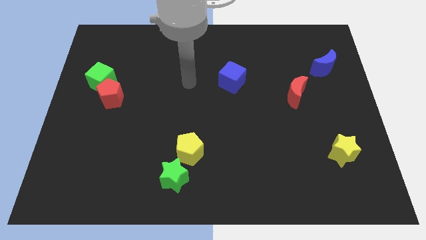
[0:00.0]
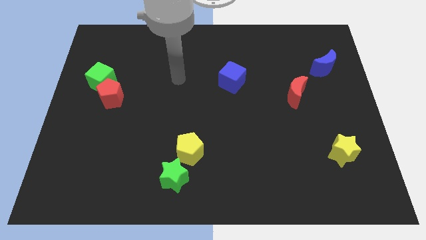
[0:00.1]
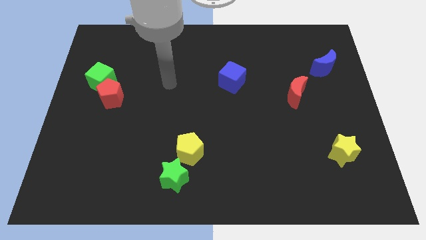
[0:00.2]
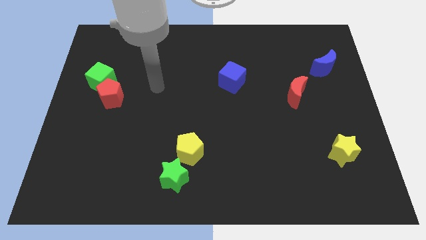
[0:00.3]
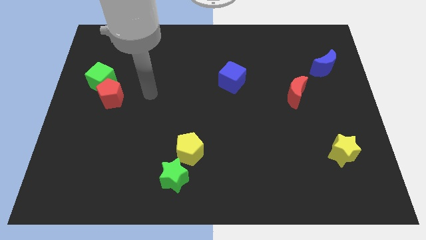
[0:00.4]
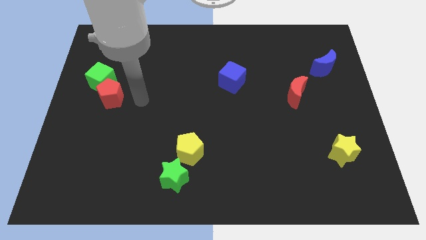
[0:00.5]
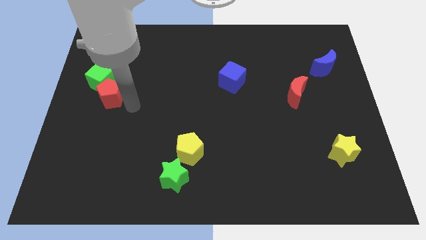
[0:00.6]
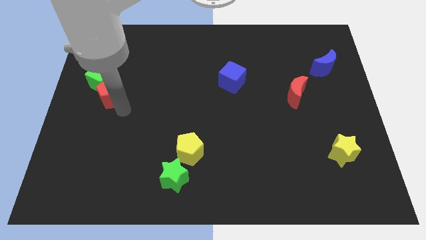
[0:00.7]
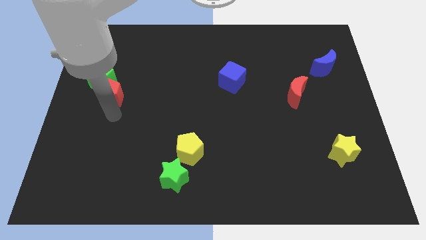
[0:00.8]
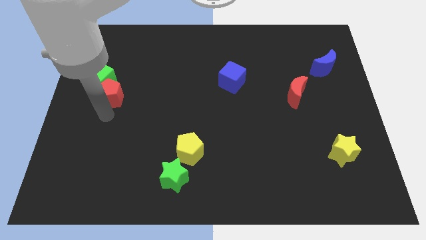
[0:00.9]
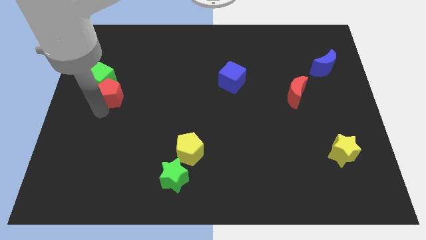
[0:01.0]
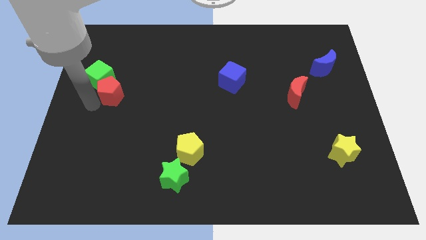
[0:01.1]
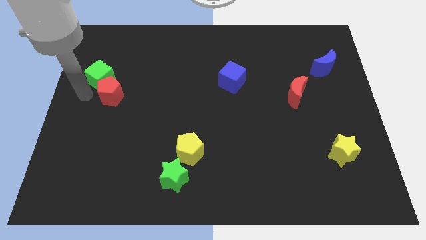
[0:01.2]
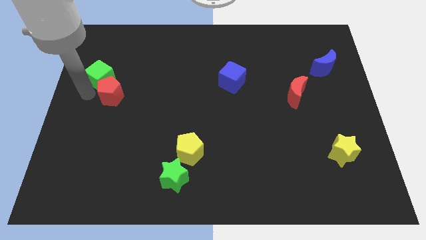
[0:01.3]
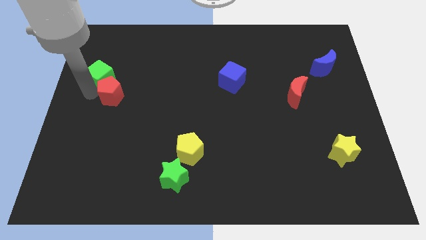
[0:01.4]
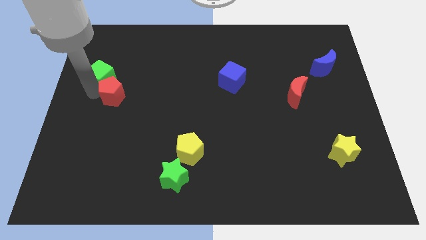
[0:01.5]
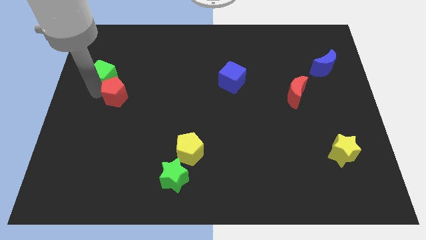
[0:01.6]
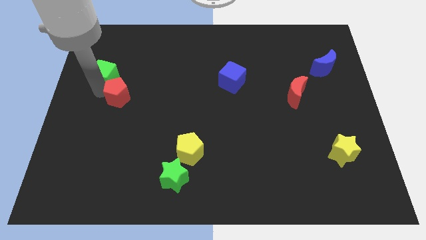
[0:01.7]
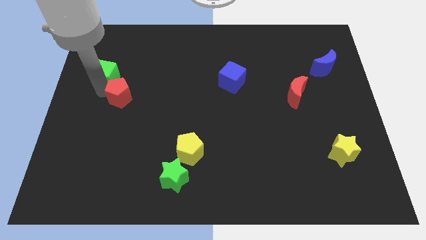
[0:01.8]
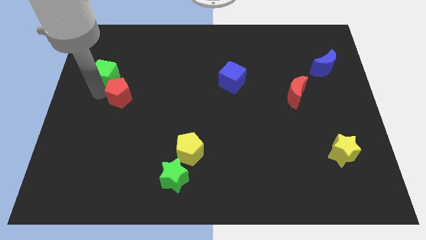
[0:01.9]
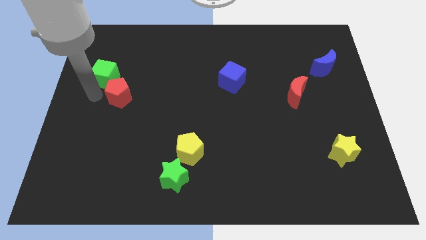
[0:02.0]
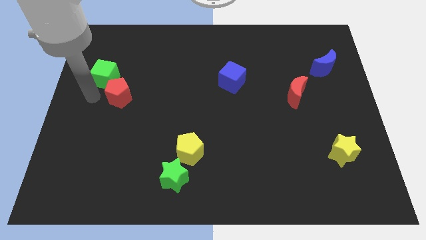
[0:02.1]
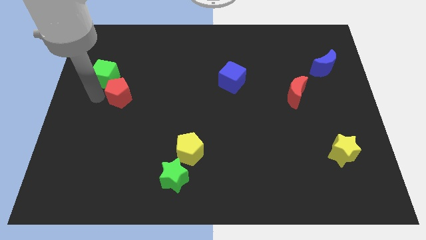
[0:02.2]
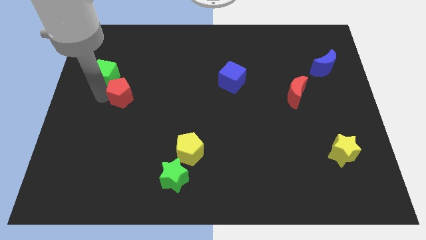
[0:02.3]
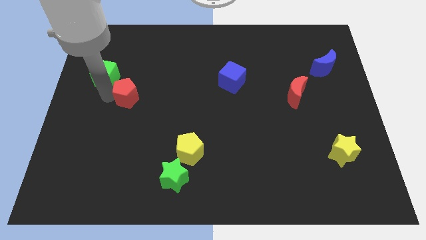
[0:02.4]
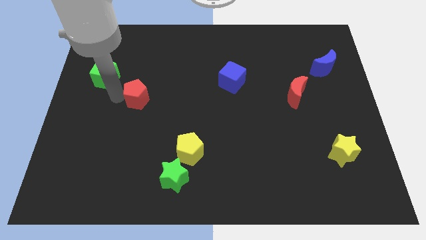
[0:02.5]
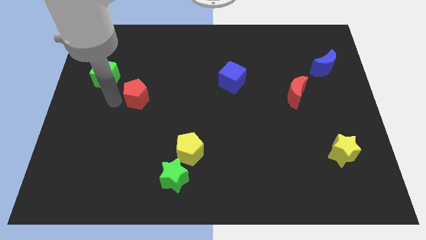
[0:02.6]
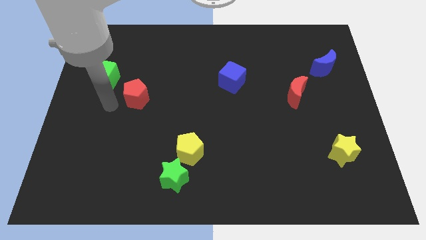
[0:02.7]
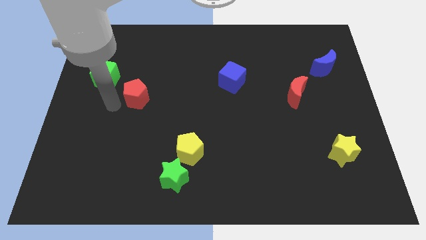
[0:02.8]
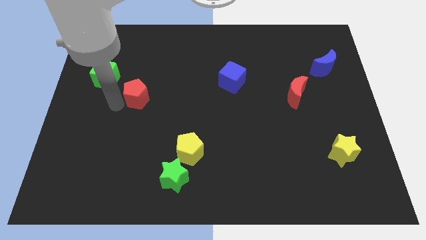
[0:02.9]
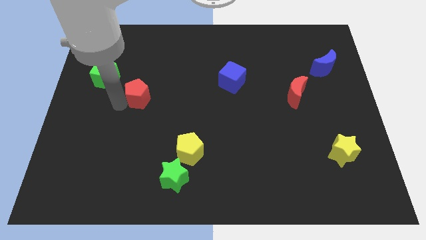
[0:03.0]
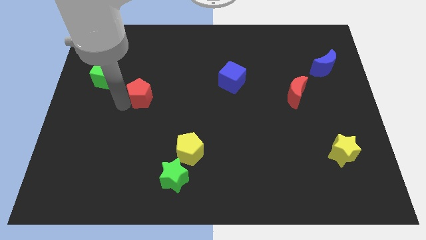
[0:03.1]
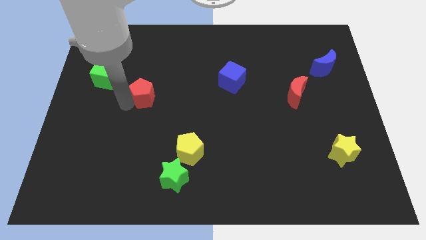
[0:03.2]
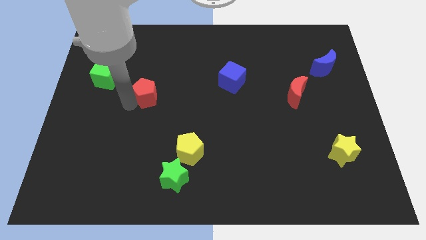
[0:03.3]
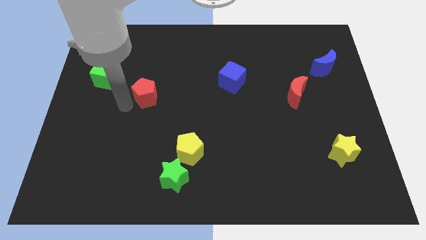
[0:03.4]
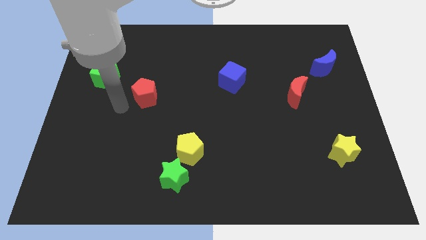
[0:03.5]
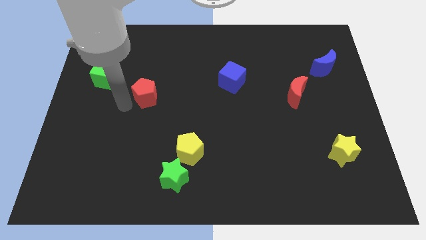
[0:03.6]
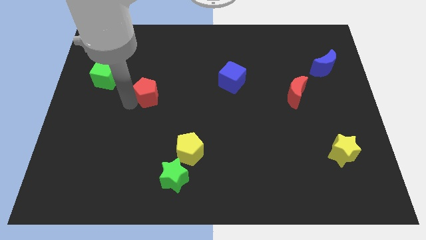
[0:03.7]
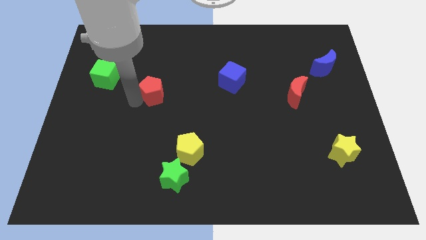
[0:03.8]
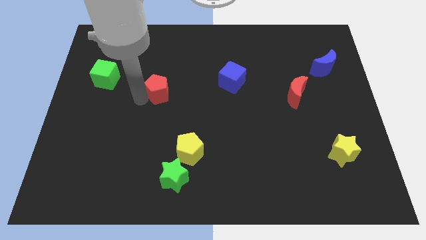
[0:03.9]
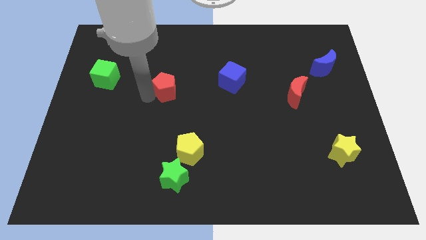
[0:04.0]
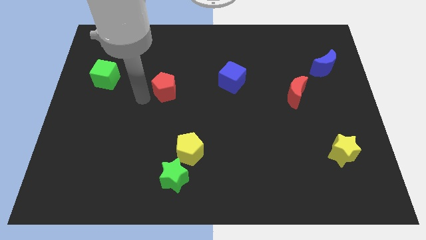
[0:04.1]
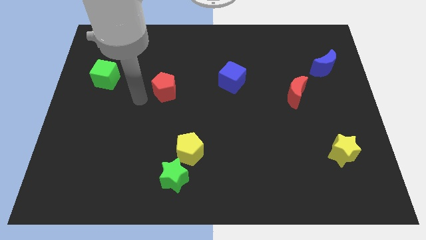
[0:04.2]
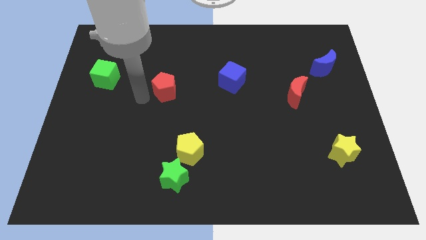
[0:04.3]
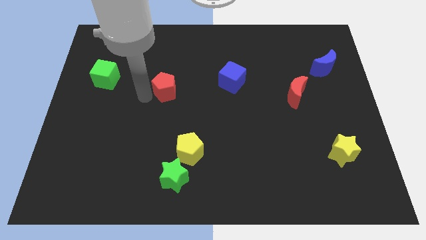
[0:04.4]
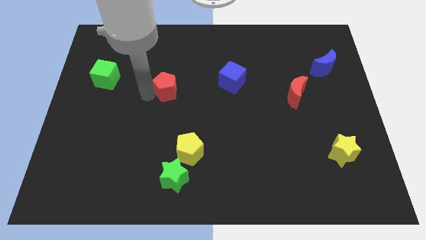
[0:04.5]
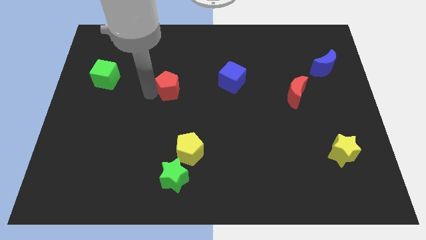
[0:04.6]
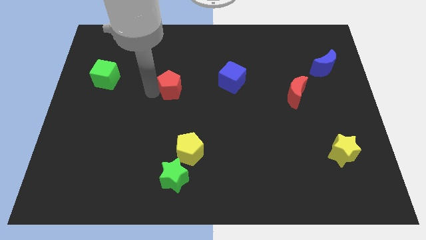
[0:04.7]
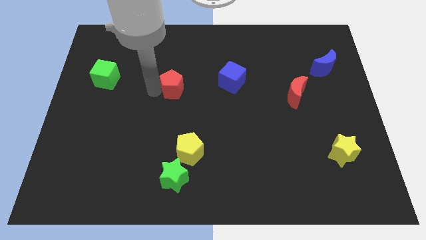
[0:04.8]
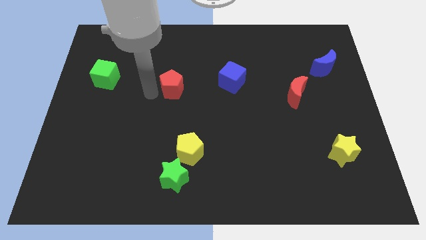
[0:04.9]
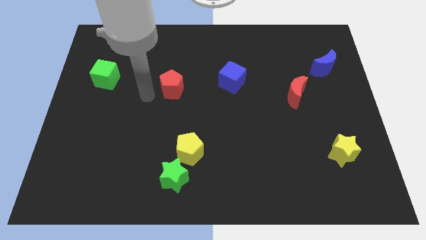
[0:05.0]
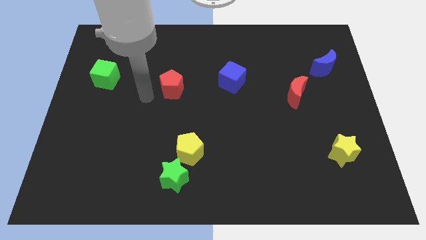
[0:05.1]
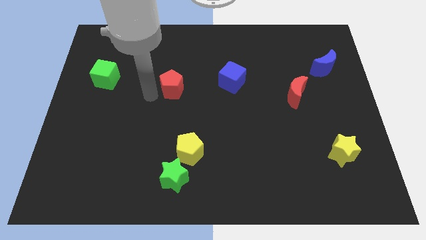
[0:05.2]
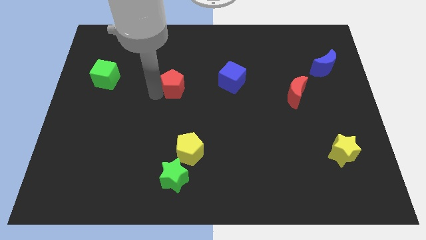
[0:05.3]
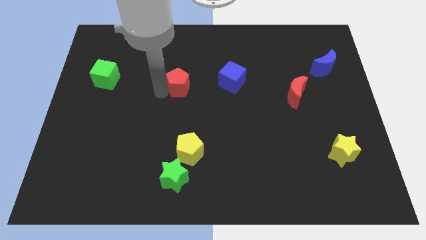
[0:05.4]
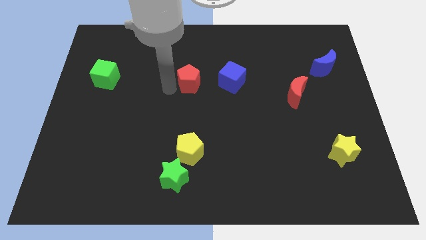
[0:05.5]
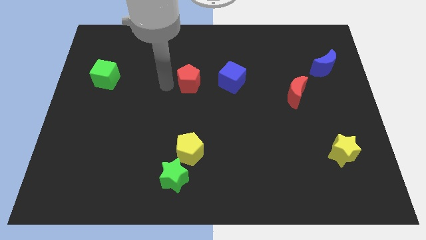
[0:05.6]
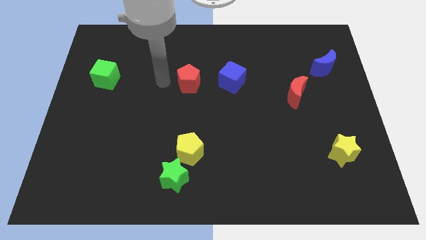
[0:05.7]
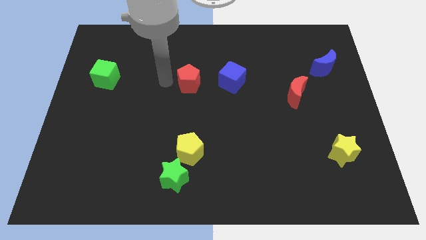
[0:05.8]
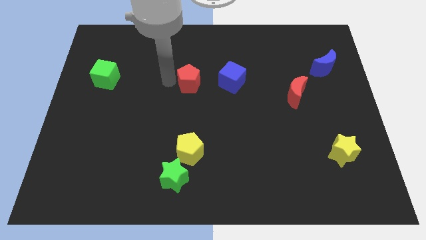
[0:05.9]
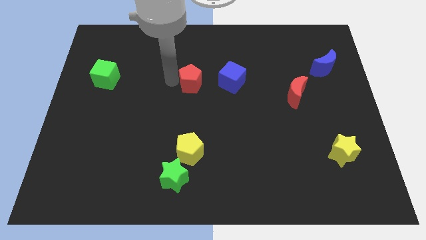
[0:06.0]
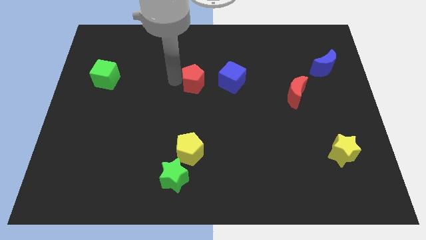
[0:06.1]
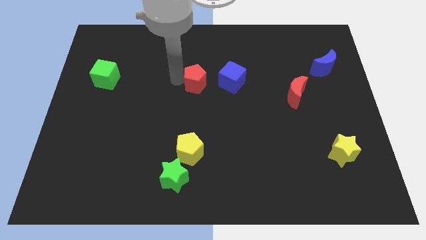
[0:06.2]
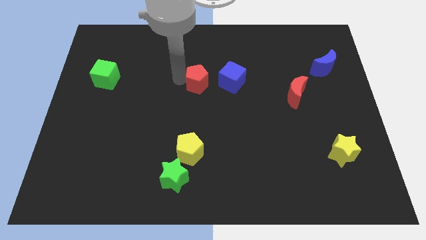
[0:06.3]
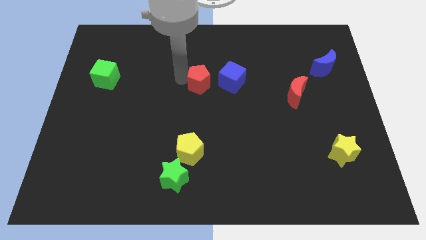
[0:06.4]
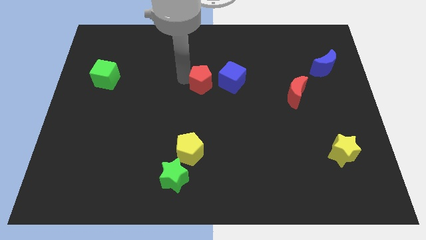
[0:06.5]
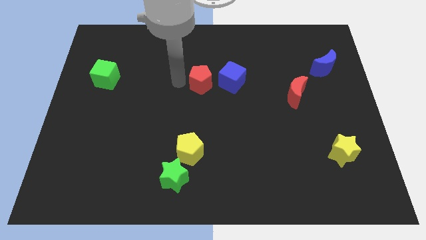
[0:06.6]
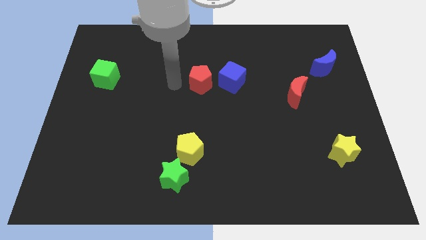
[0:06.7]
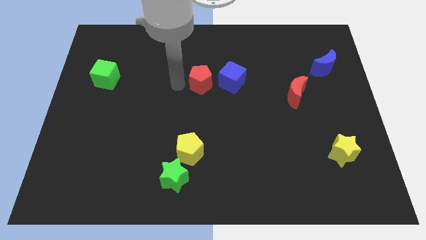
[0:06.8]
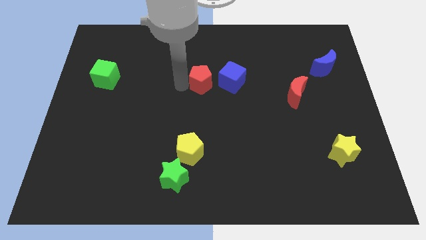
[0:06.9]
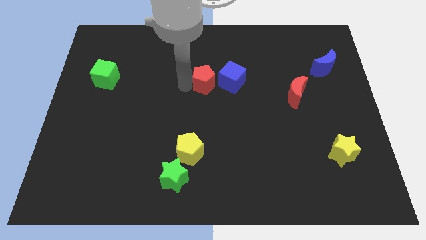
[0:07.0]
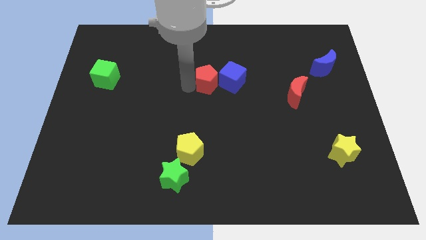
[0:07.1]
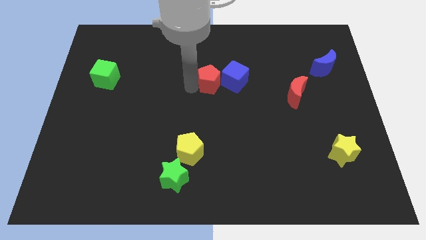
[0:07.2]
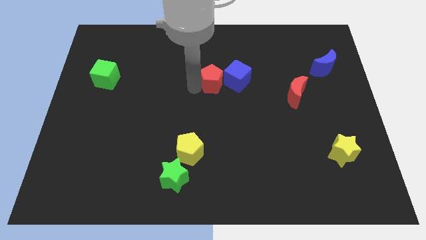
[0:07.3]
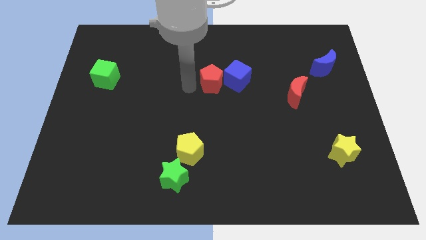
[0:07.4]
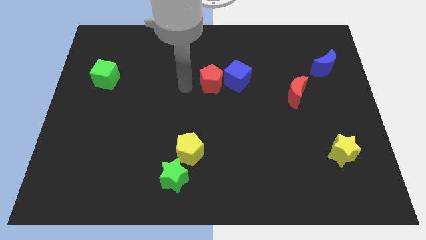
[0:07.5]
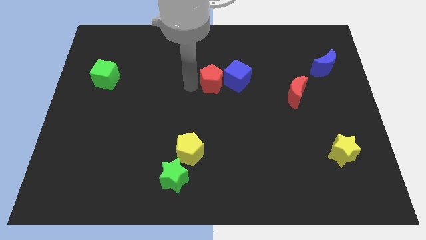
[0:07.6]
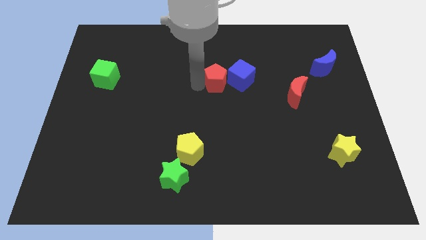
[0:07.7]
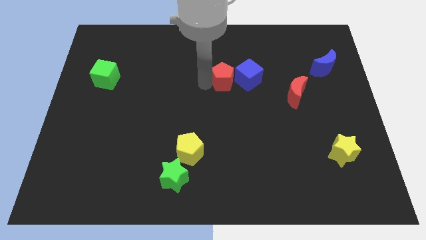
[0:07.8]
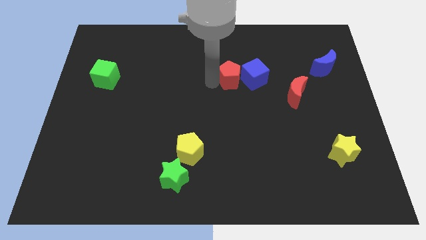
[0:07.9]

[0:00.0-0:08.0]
slide the red pentagon to the blue cube
